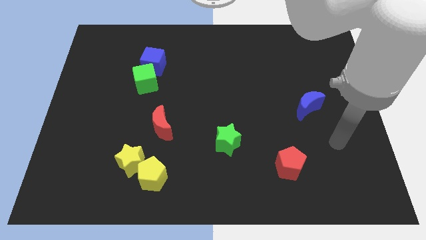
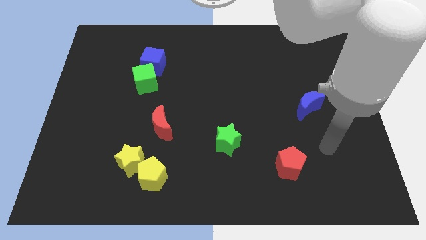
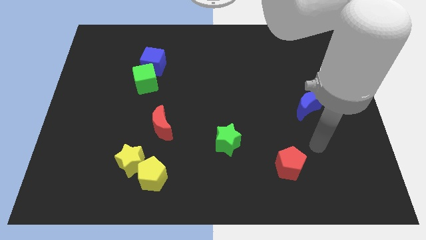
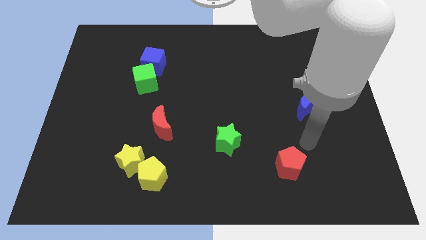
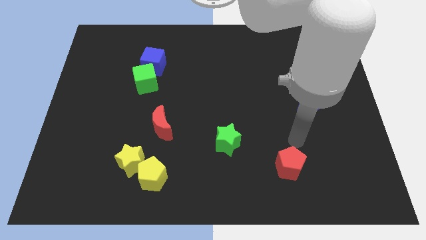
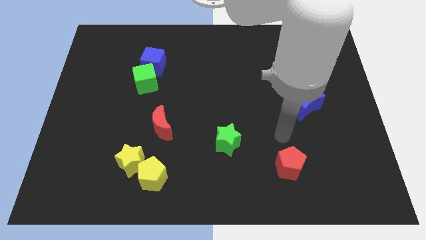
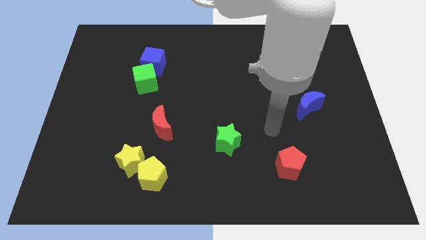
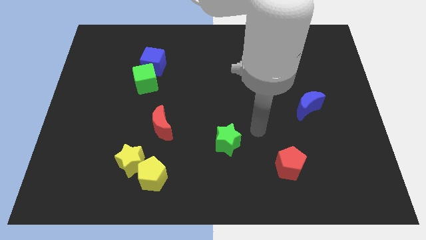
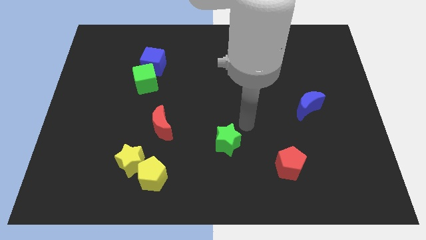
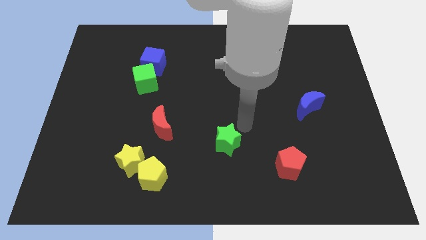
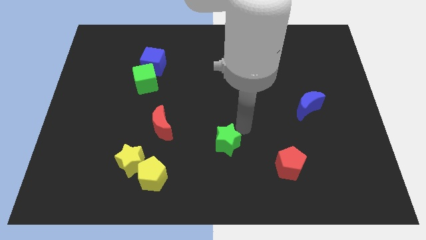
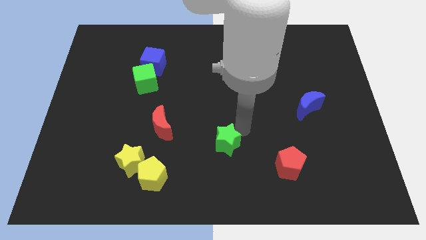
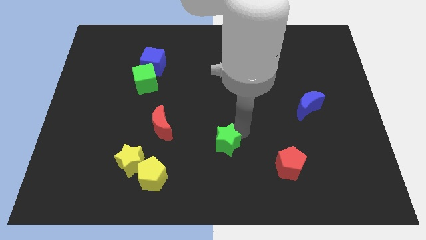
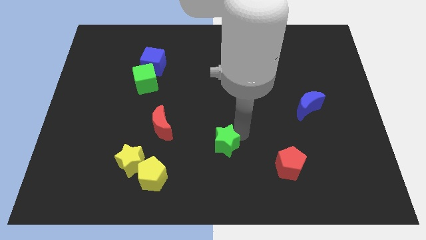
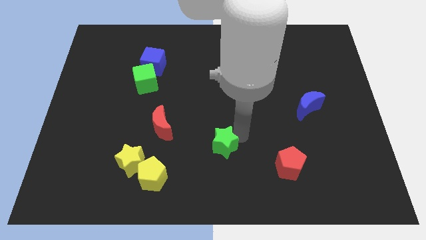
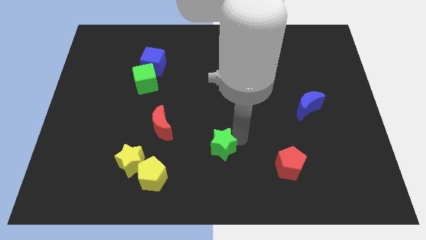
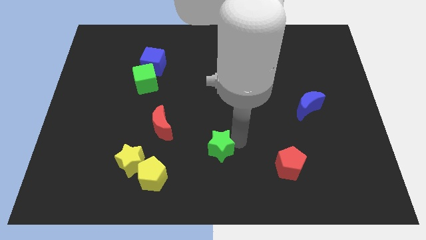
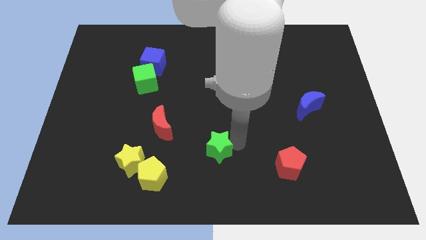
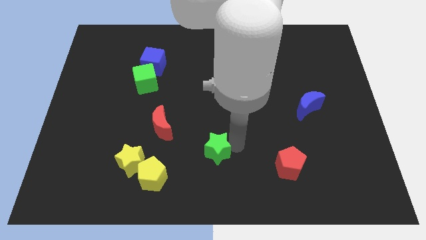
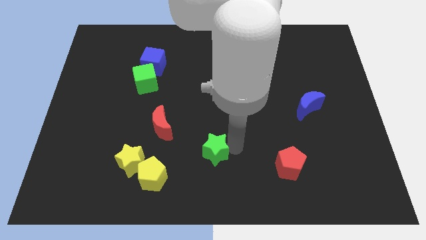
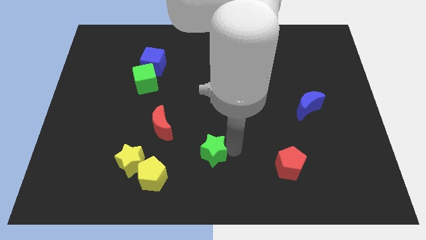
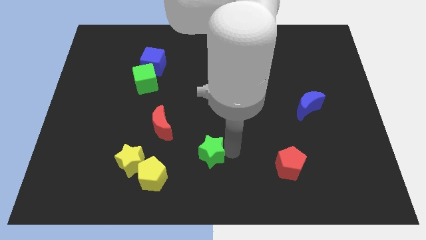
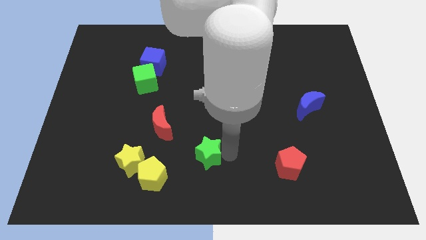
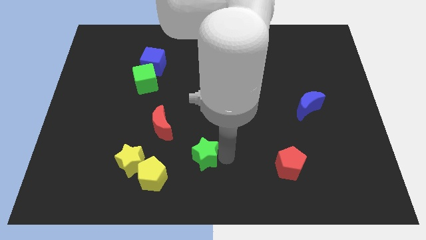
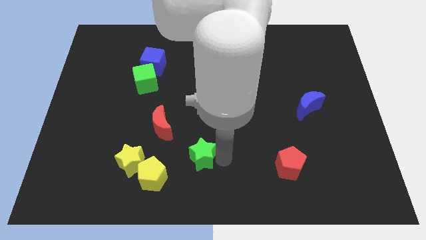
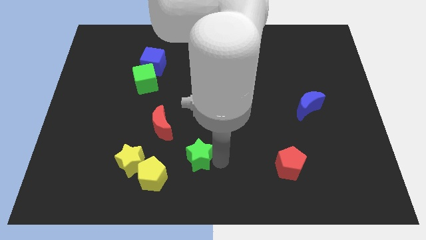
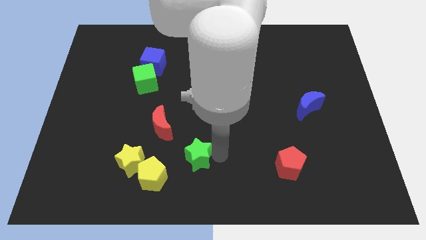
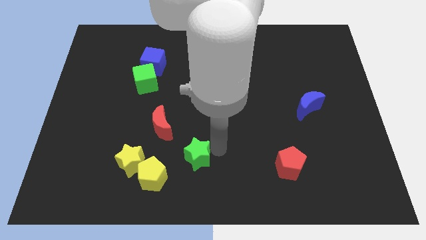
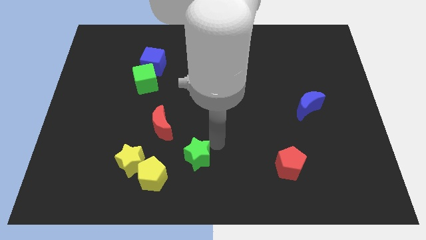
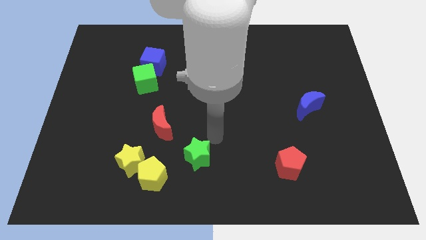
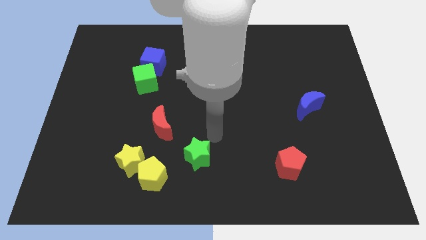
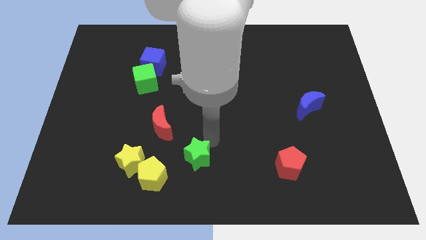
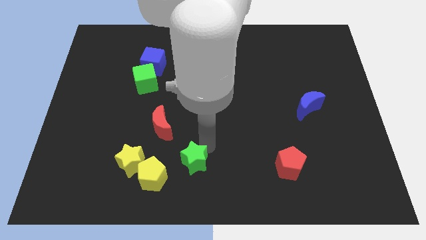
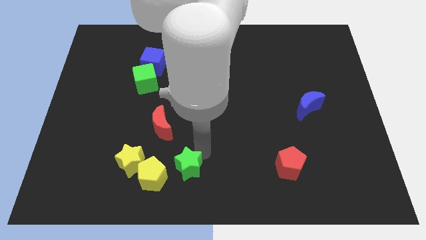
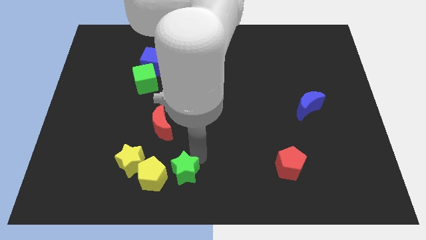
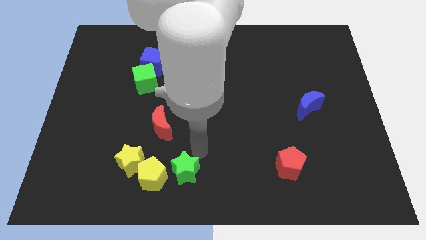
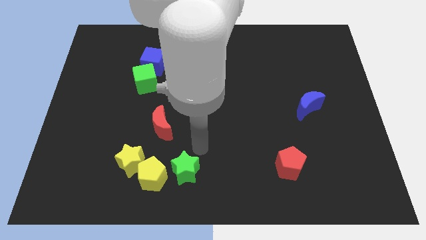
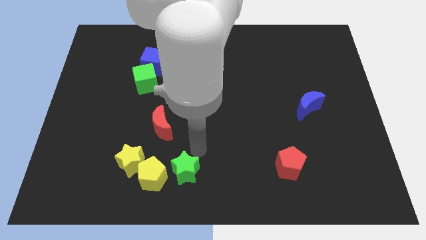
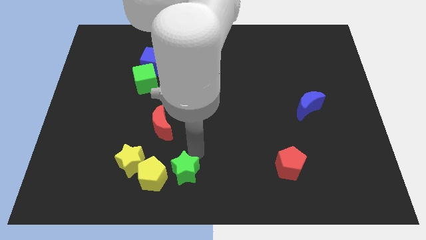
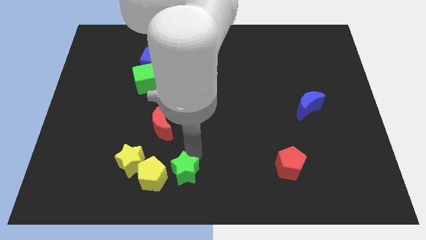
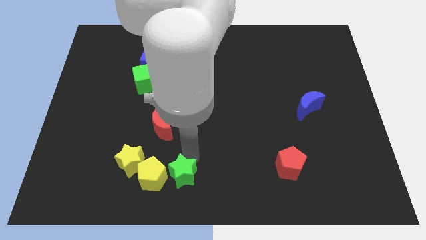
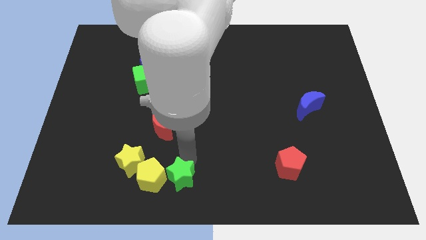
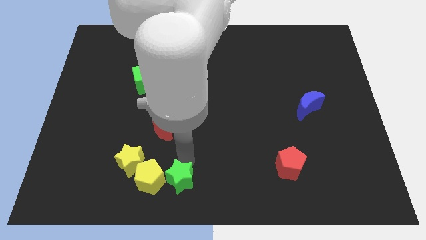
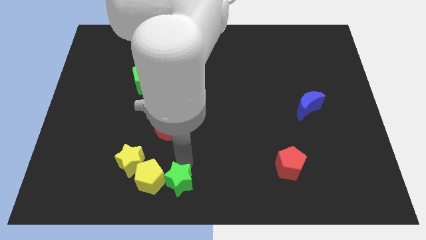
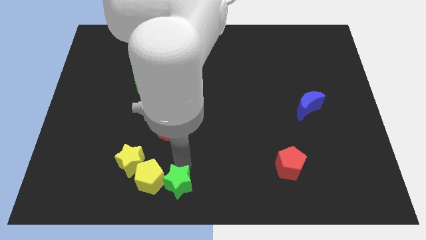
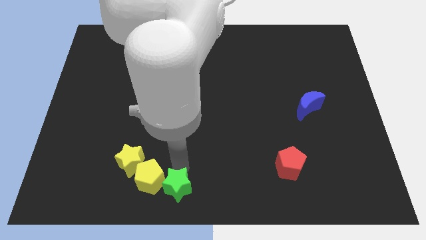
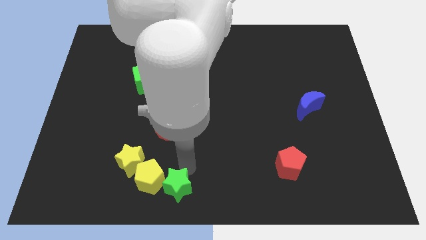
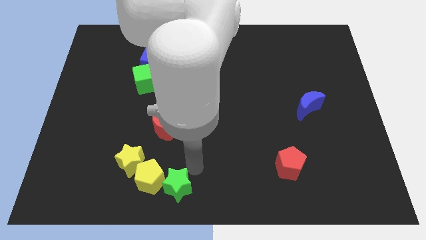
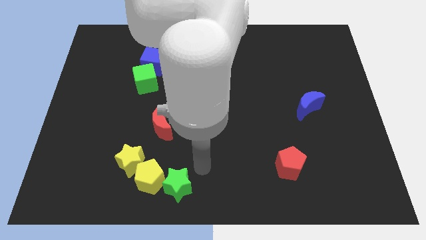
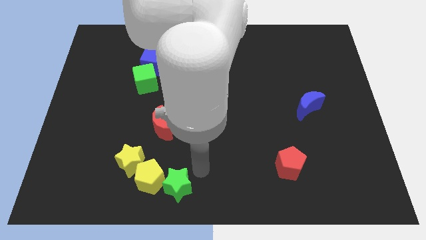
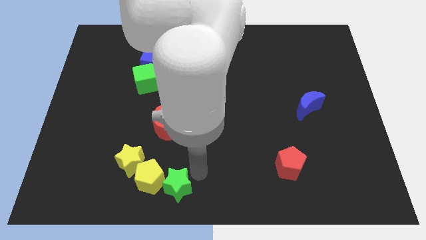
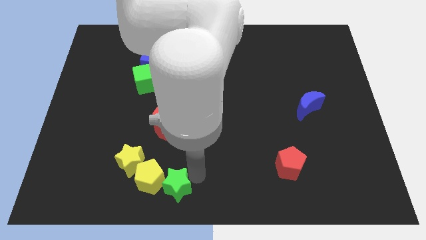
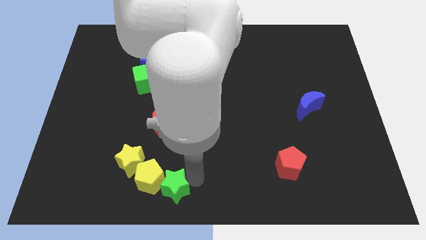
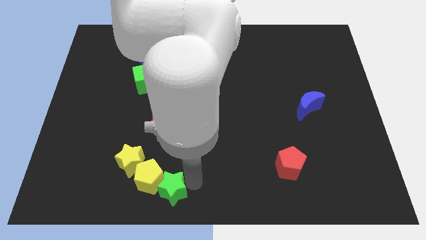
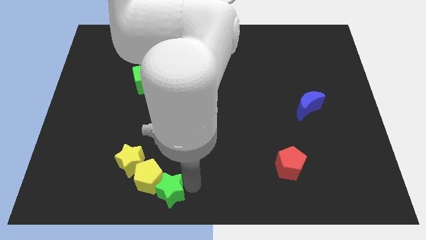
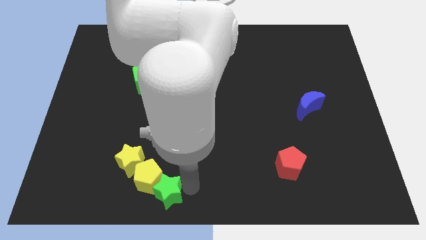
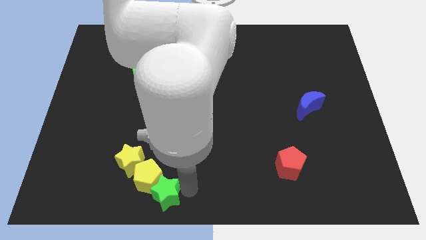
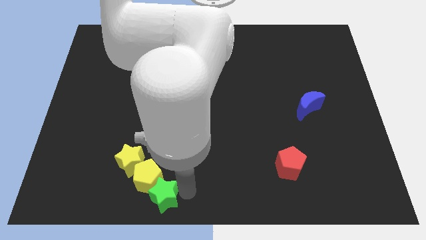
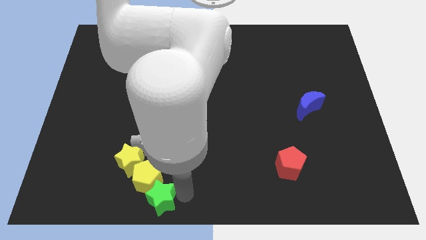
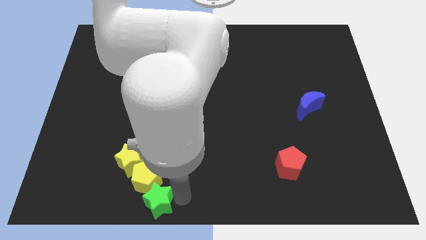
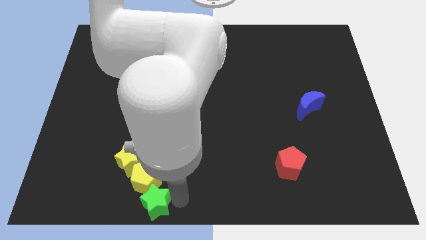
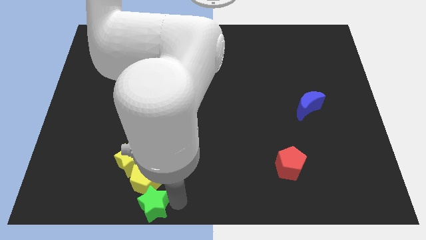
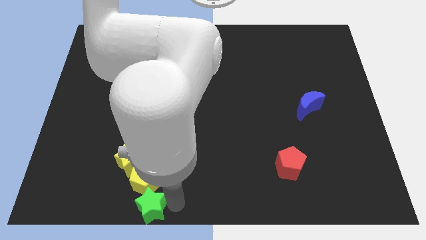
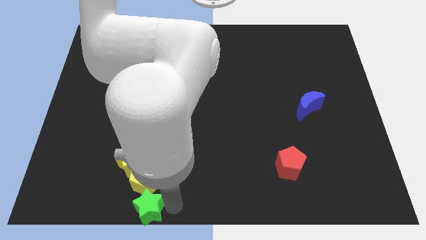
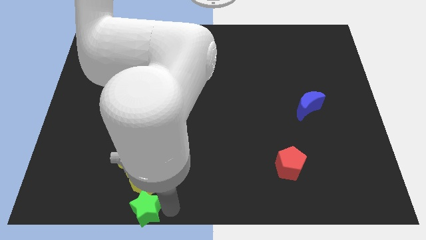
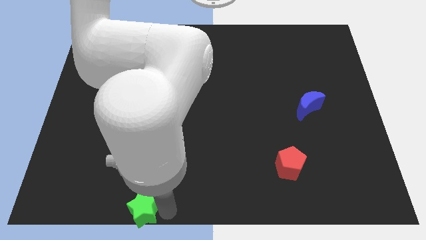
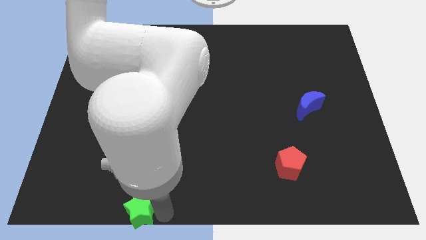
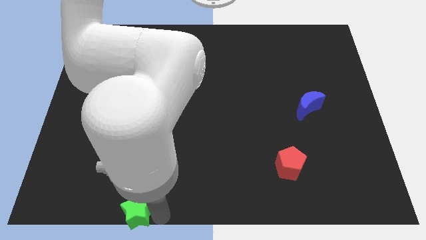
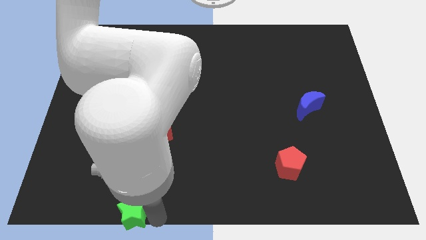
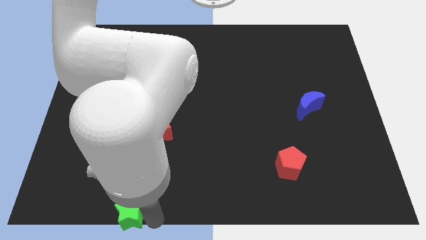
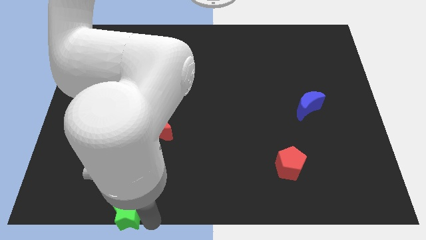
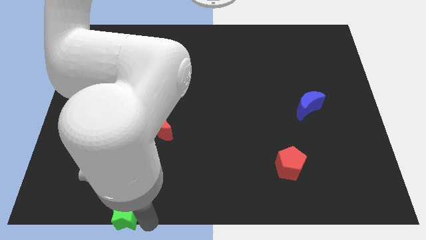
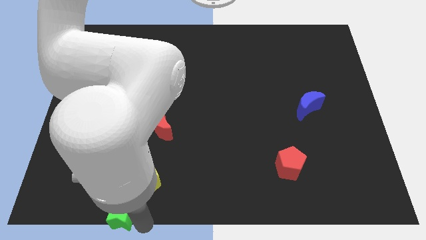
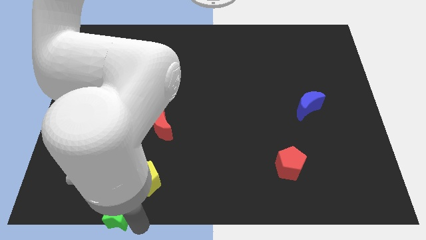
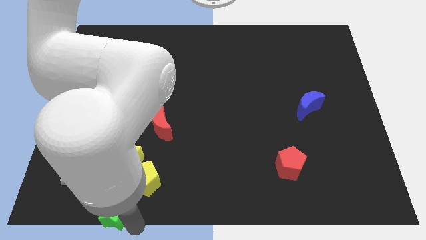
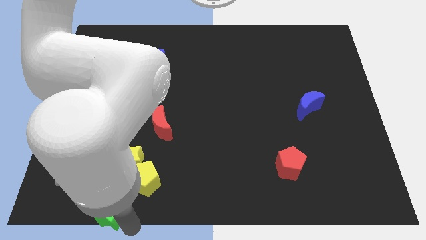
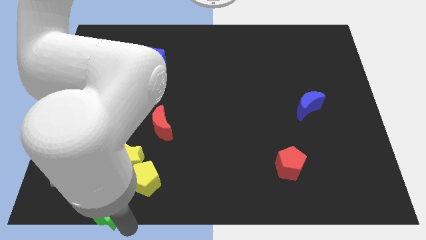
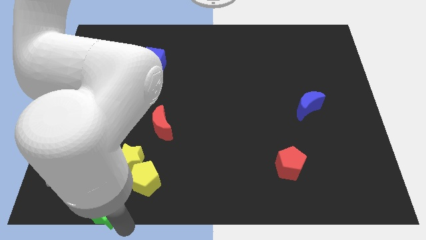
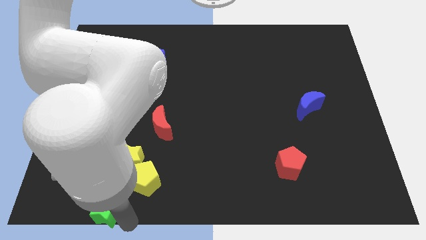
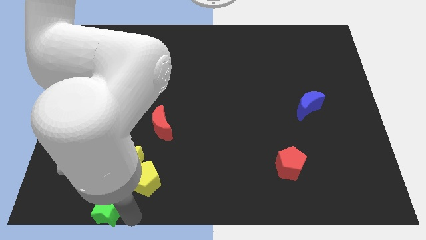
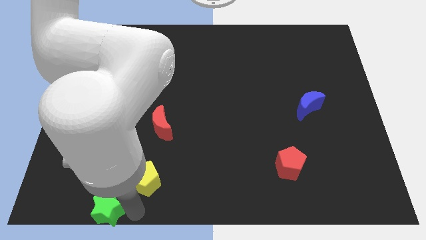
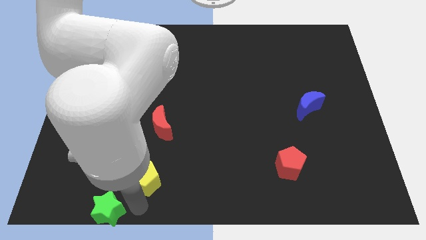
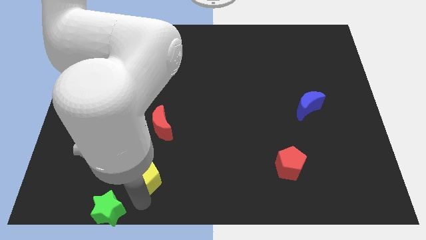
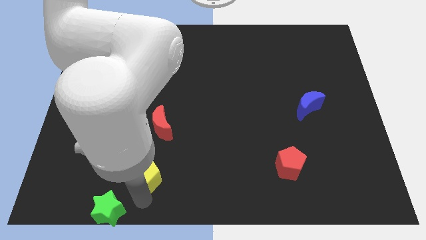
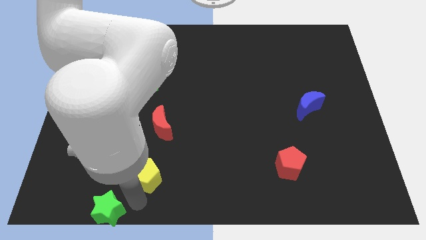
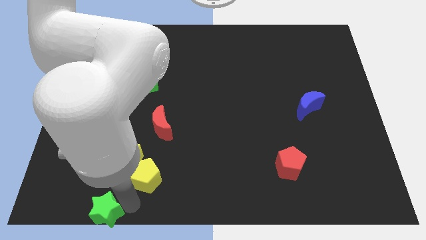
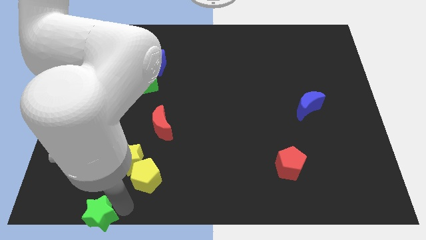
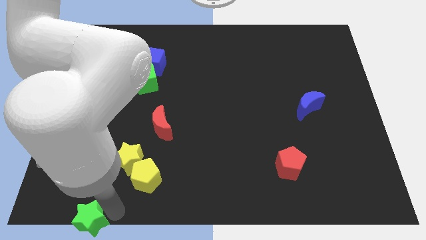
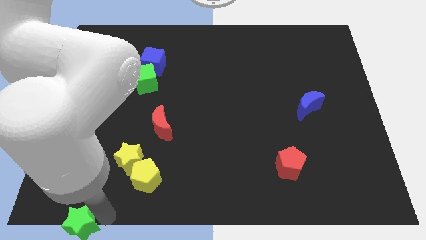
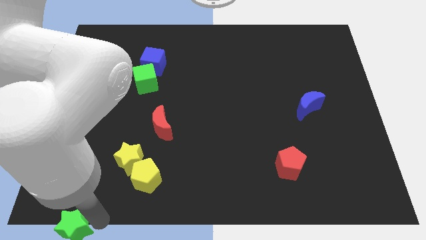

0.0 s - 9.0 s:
slide the green star to the bottom left
